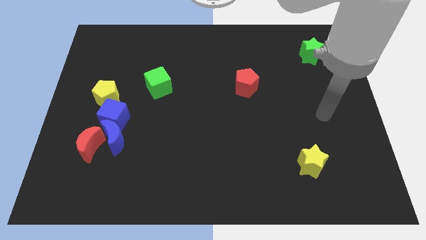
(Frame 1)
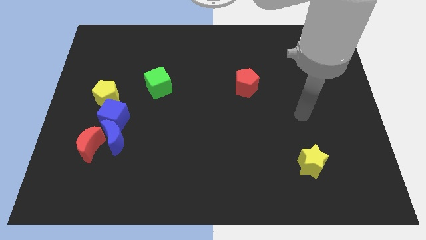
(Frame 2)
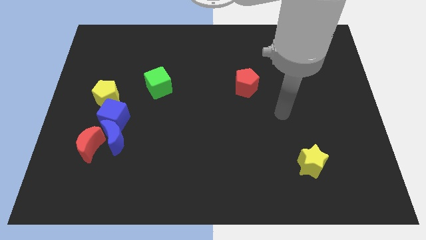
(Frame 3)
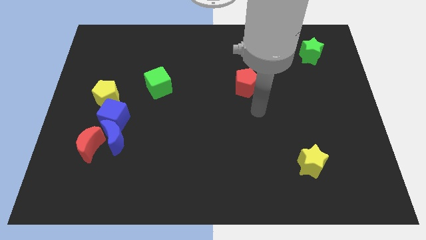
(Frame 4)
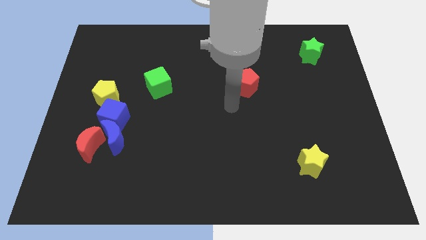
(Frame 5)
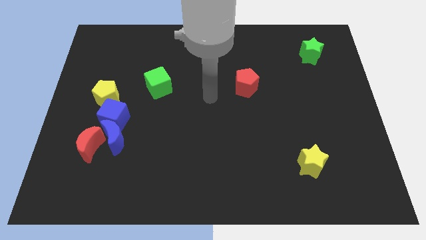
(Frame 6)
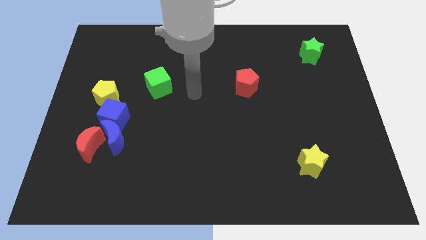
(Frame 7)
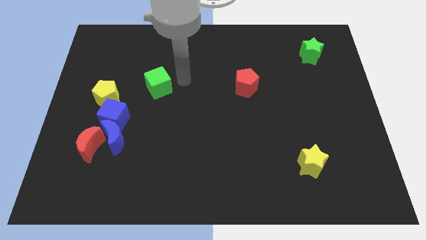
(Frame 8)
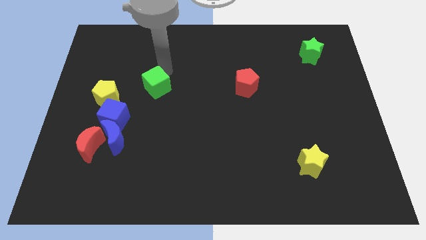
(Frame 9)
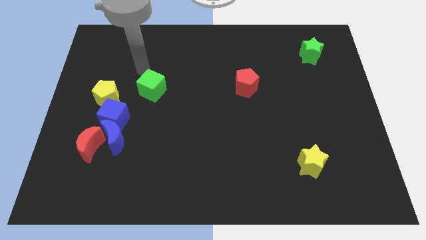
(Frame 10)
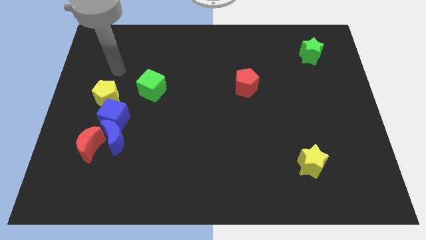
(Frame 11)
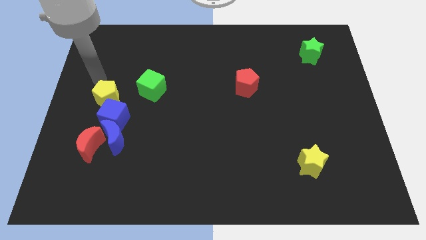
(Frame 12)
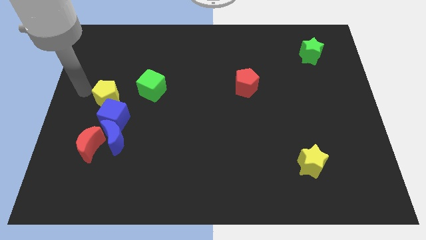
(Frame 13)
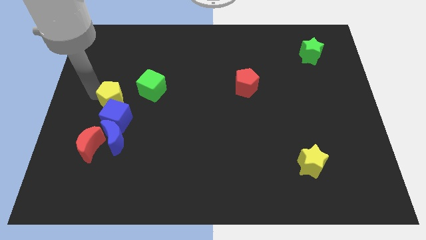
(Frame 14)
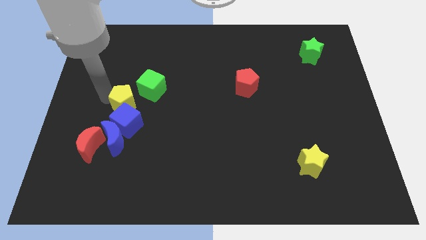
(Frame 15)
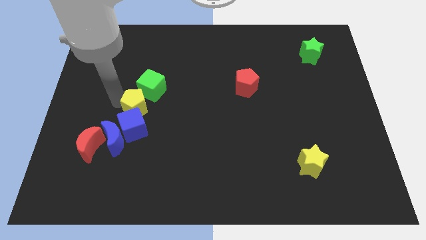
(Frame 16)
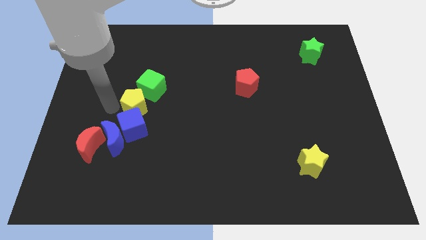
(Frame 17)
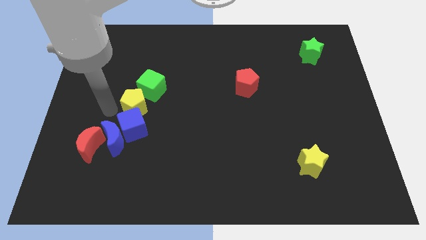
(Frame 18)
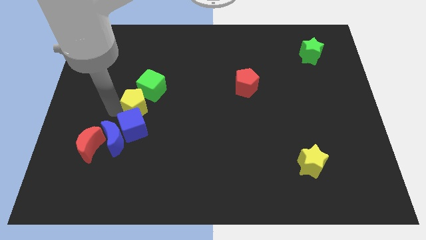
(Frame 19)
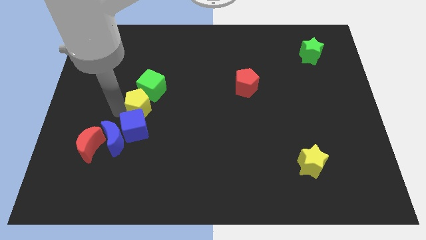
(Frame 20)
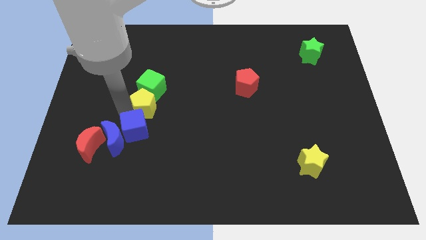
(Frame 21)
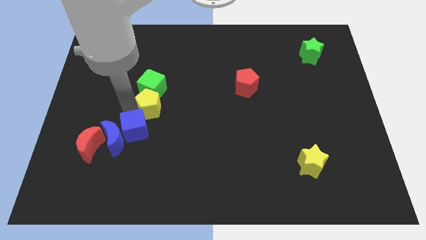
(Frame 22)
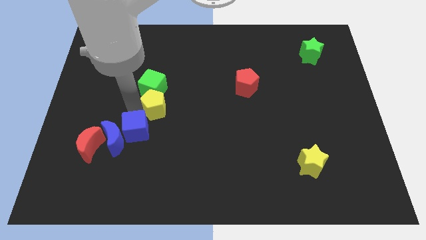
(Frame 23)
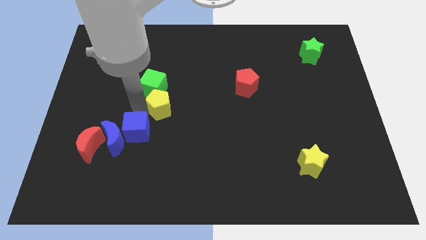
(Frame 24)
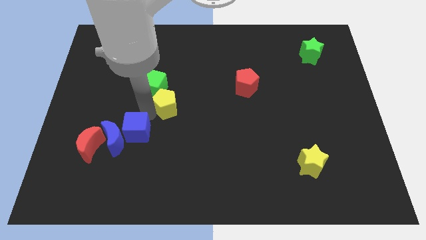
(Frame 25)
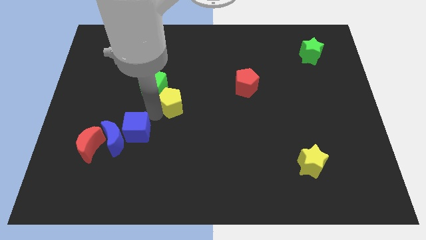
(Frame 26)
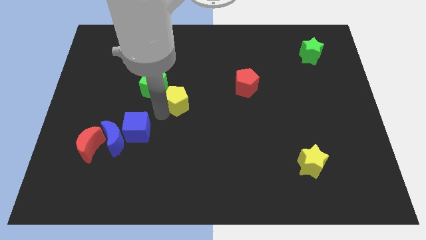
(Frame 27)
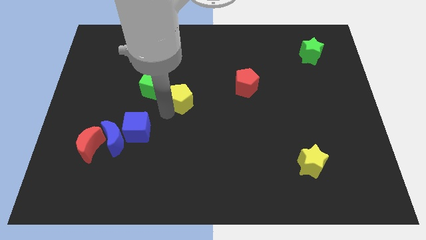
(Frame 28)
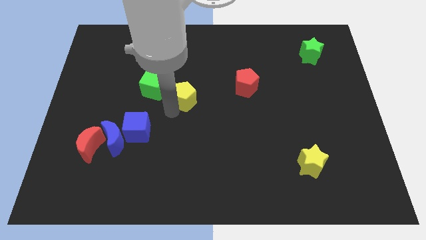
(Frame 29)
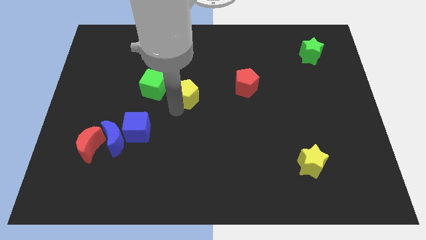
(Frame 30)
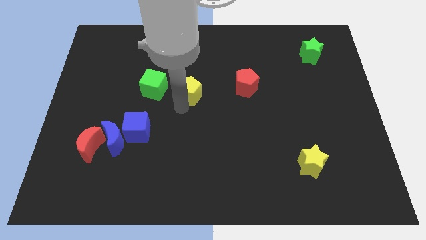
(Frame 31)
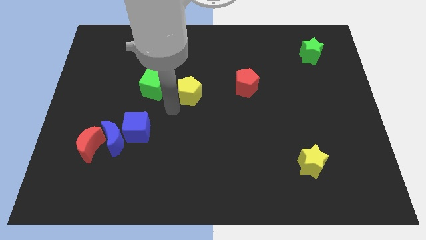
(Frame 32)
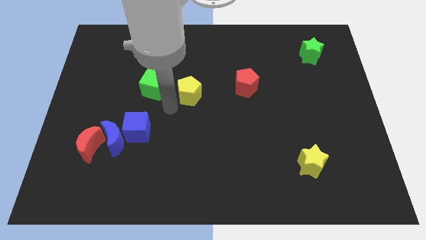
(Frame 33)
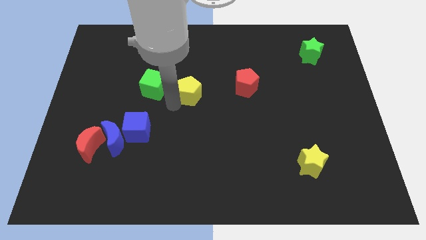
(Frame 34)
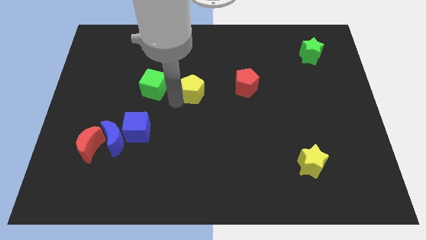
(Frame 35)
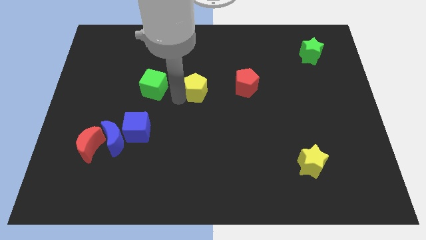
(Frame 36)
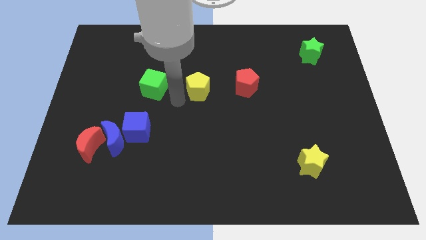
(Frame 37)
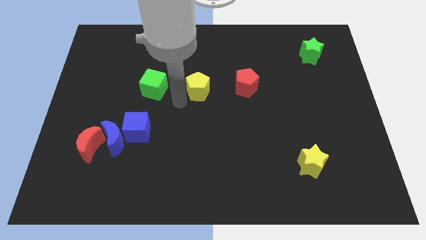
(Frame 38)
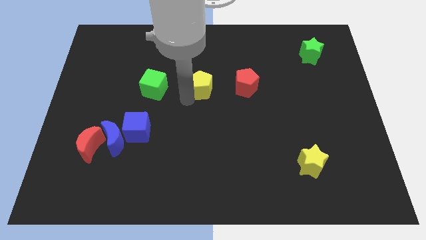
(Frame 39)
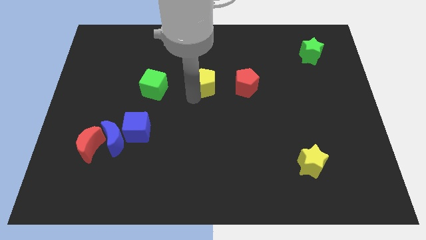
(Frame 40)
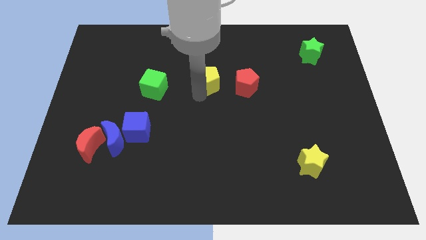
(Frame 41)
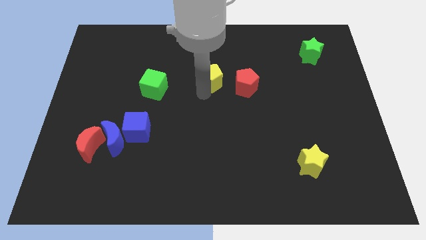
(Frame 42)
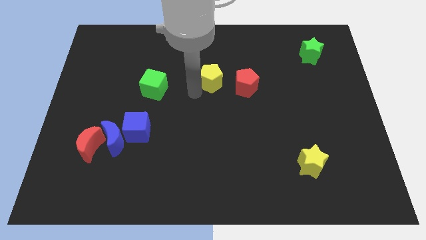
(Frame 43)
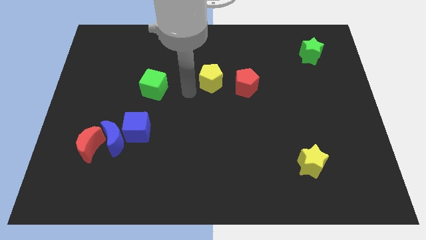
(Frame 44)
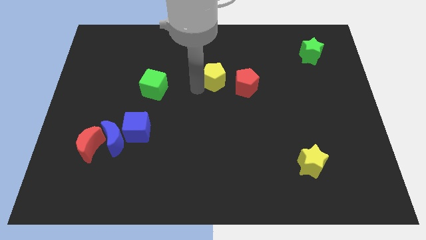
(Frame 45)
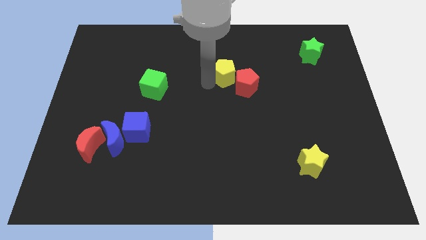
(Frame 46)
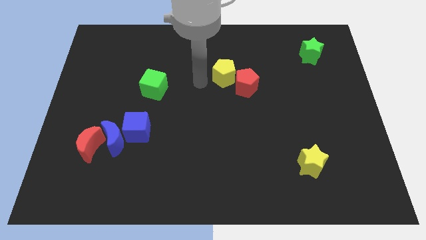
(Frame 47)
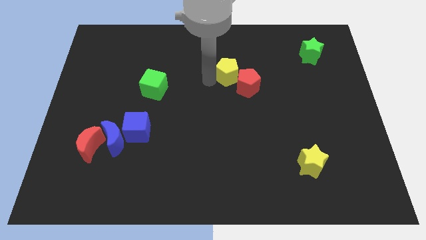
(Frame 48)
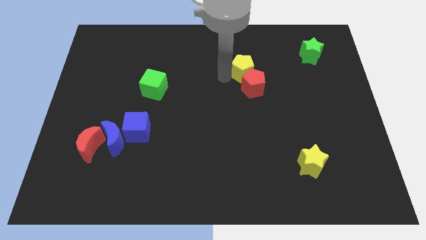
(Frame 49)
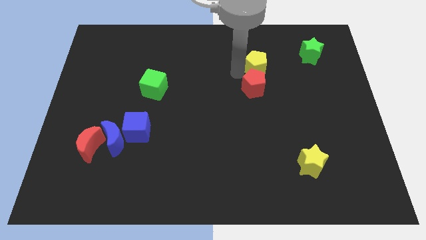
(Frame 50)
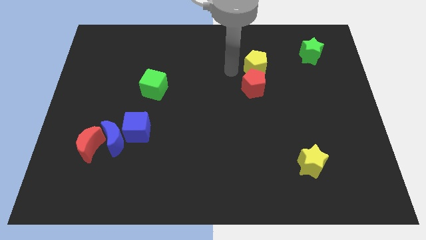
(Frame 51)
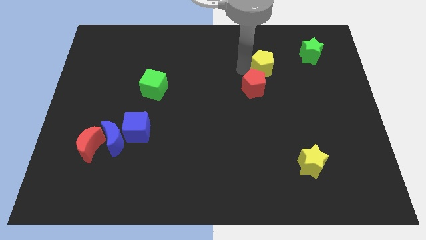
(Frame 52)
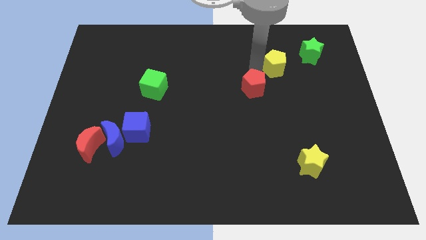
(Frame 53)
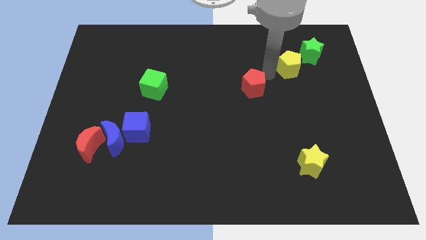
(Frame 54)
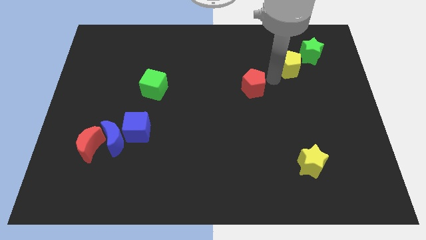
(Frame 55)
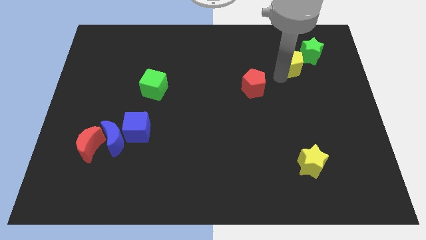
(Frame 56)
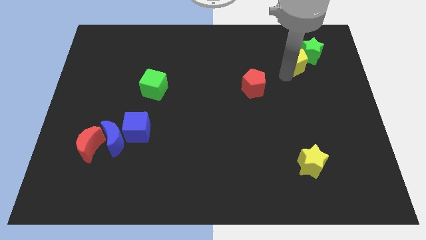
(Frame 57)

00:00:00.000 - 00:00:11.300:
slide the yellow pentagon towards the green star

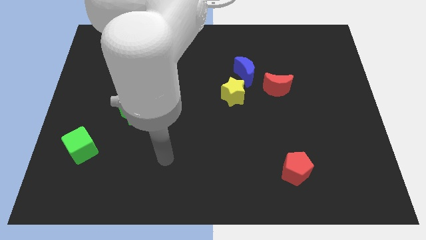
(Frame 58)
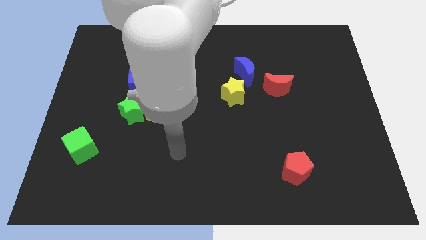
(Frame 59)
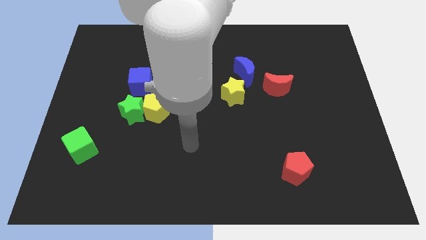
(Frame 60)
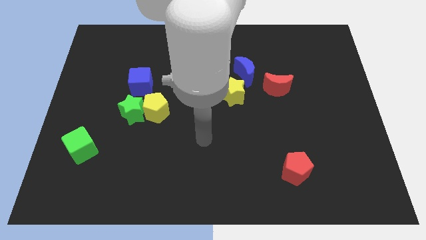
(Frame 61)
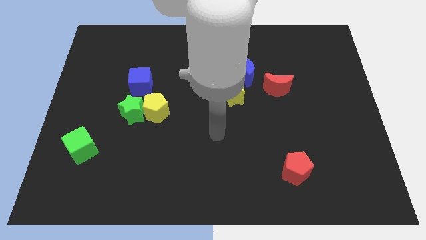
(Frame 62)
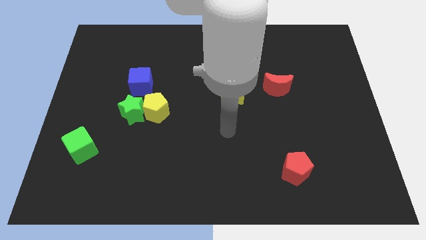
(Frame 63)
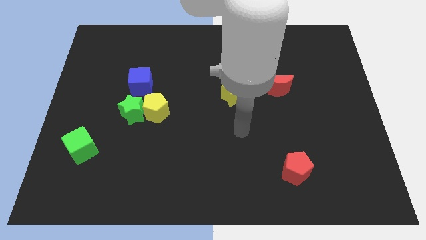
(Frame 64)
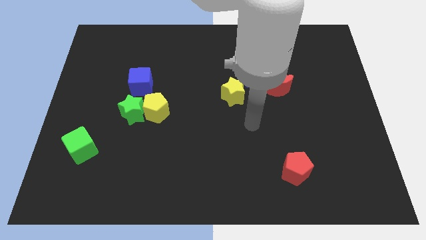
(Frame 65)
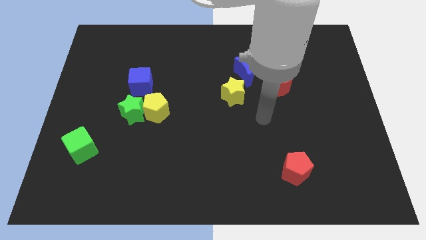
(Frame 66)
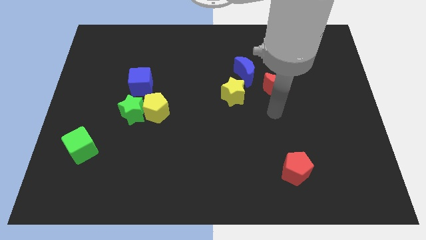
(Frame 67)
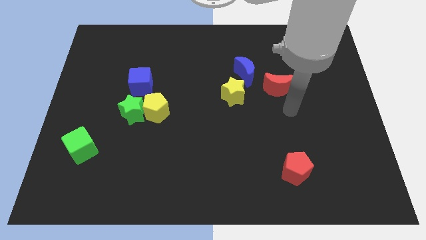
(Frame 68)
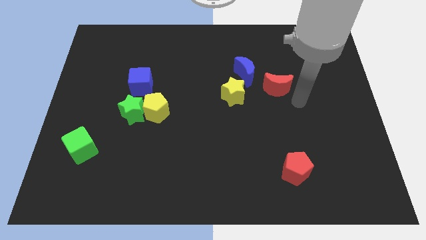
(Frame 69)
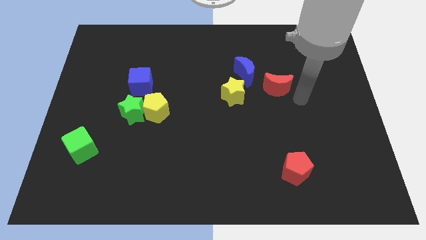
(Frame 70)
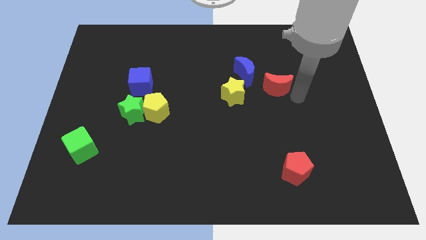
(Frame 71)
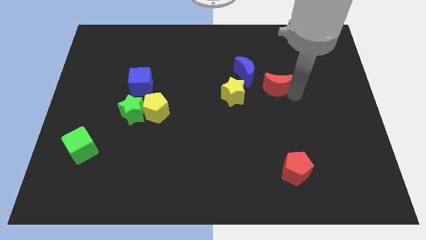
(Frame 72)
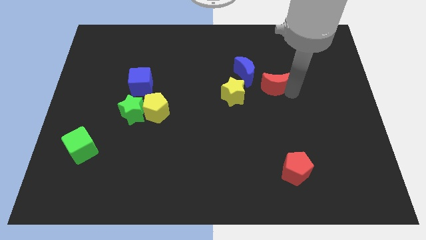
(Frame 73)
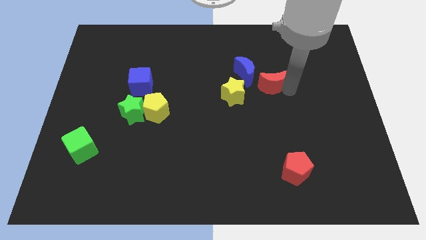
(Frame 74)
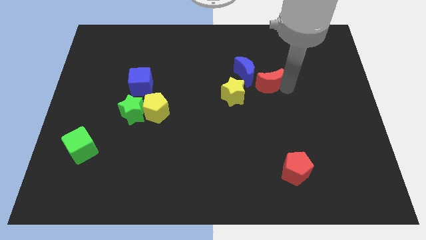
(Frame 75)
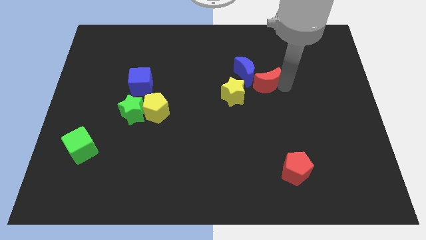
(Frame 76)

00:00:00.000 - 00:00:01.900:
move the red moon next to the blue moon
